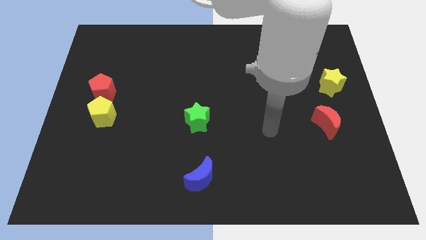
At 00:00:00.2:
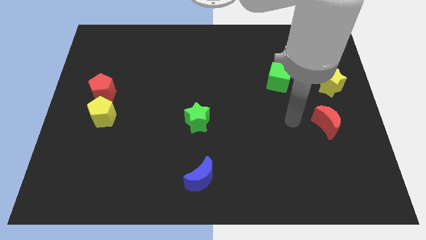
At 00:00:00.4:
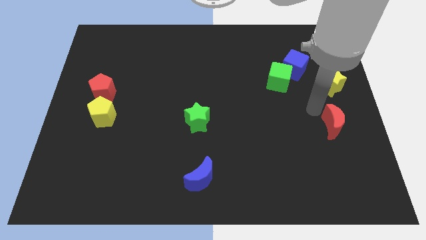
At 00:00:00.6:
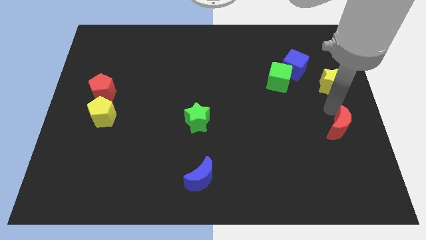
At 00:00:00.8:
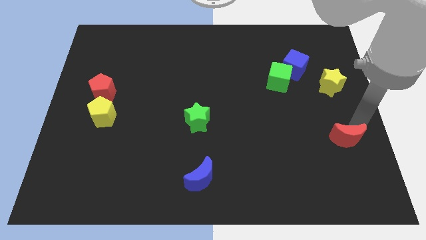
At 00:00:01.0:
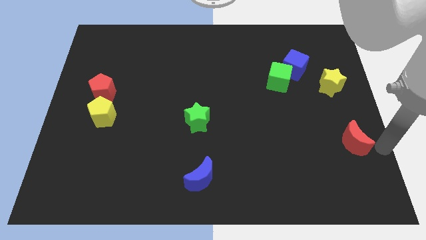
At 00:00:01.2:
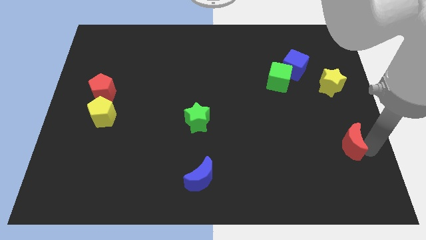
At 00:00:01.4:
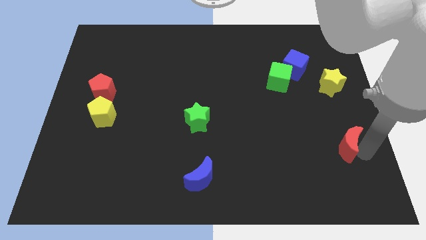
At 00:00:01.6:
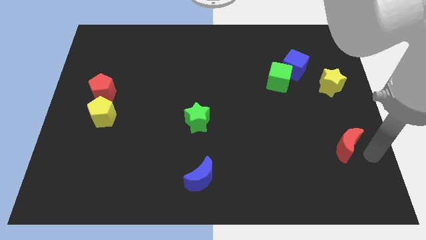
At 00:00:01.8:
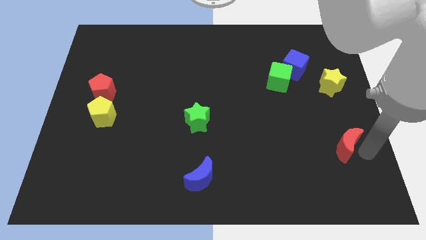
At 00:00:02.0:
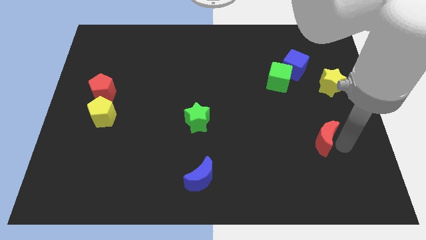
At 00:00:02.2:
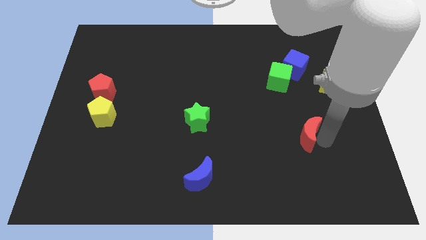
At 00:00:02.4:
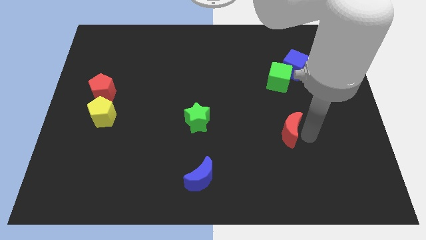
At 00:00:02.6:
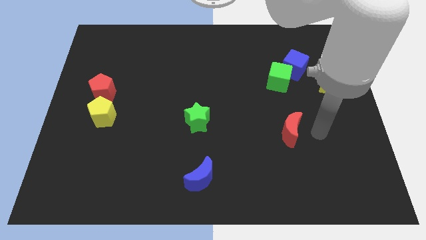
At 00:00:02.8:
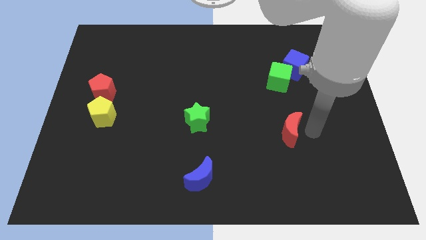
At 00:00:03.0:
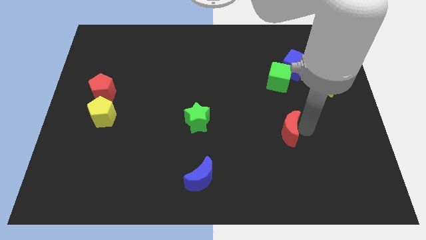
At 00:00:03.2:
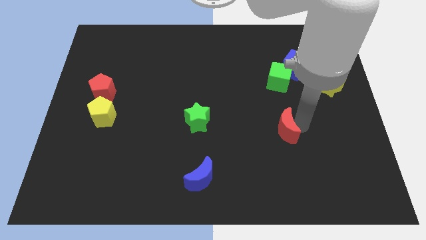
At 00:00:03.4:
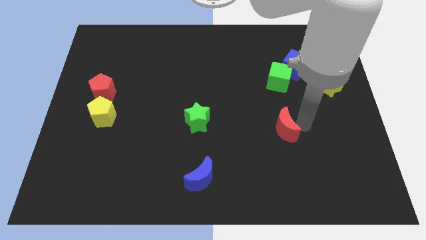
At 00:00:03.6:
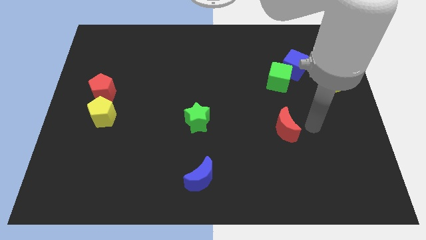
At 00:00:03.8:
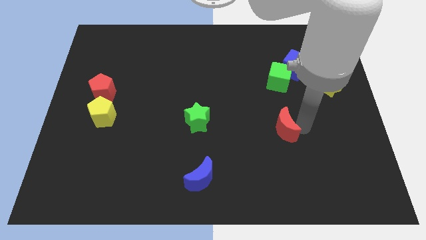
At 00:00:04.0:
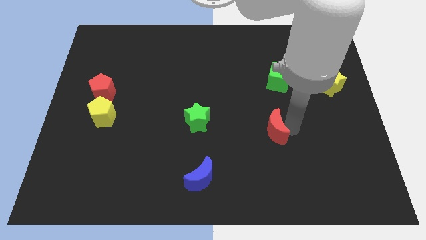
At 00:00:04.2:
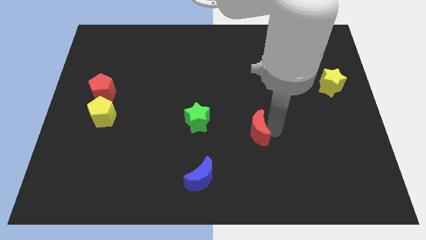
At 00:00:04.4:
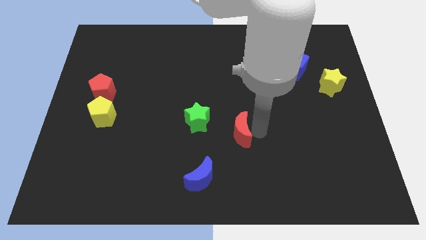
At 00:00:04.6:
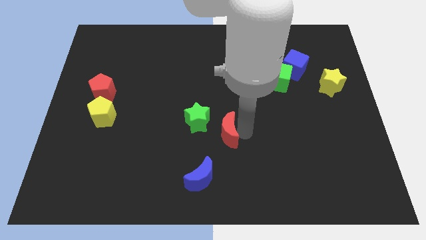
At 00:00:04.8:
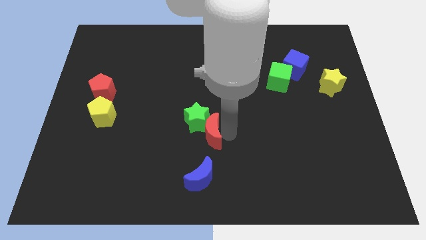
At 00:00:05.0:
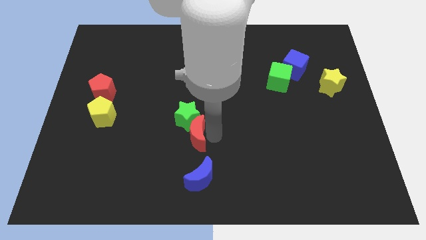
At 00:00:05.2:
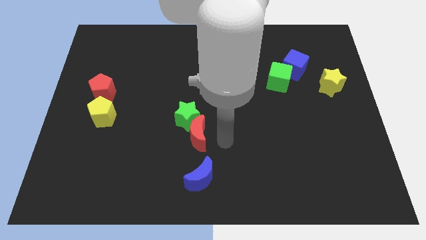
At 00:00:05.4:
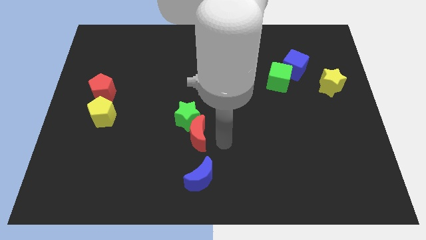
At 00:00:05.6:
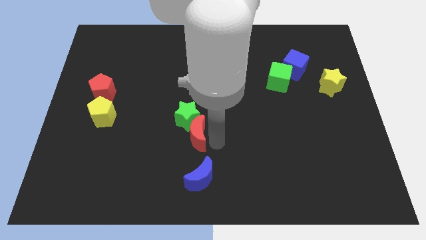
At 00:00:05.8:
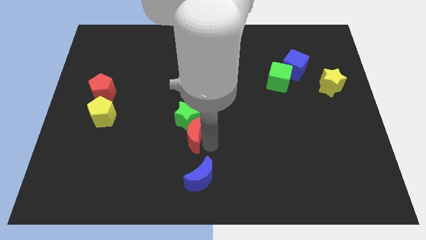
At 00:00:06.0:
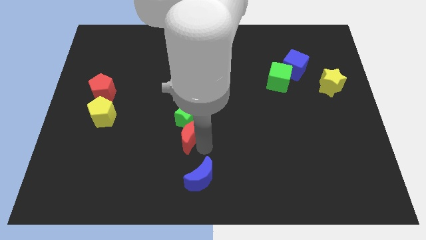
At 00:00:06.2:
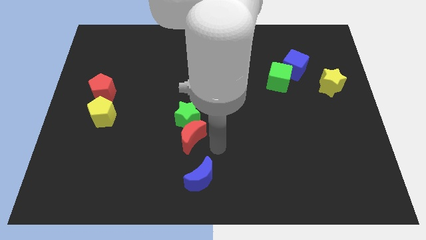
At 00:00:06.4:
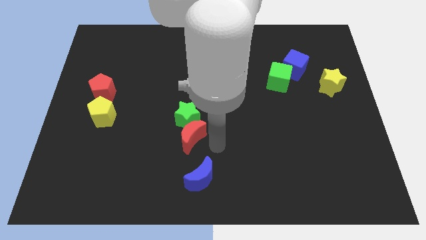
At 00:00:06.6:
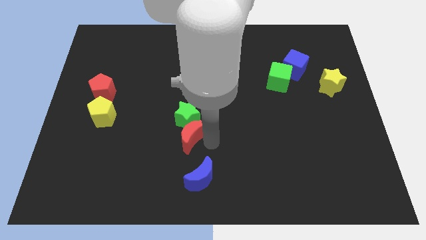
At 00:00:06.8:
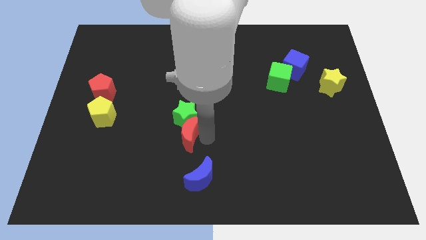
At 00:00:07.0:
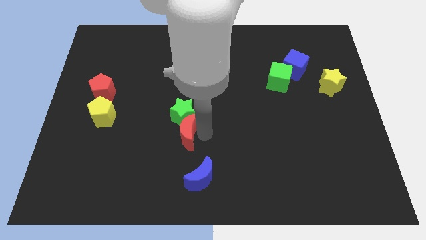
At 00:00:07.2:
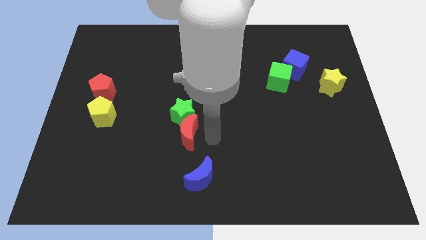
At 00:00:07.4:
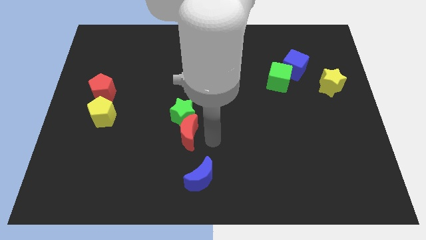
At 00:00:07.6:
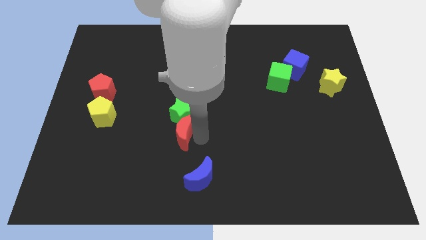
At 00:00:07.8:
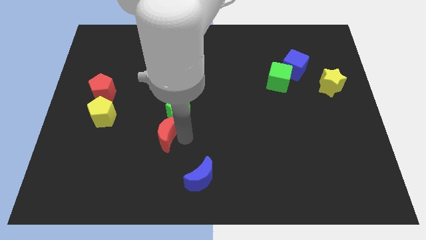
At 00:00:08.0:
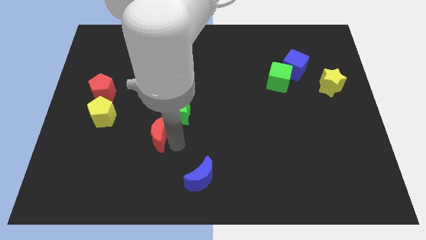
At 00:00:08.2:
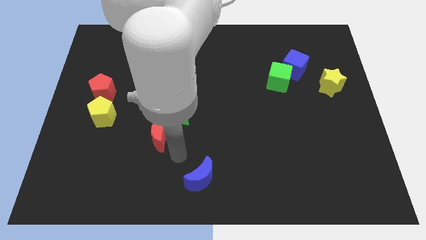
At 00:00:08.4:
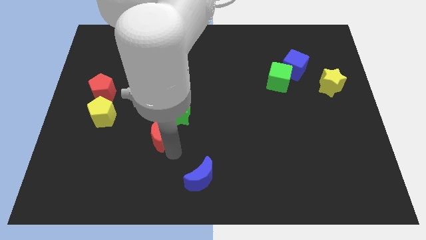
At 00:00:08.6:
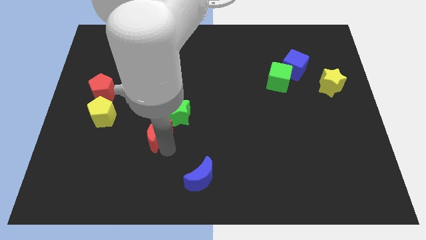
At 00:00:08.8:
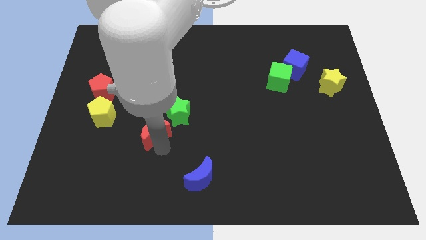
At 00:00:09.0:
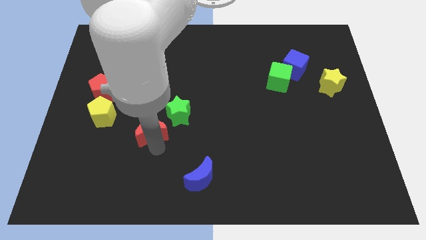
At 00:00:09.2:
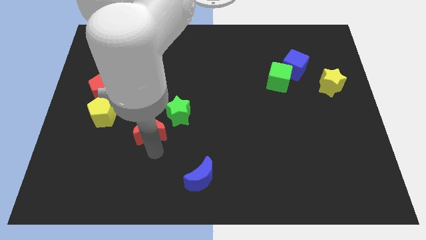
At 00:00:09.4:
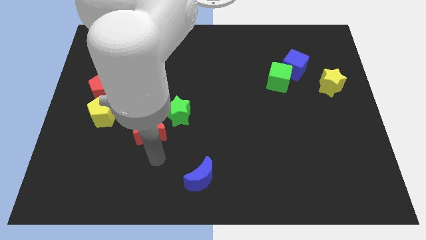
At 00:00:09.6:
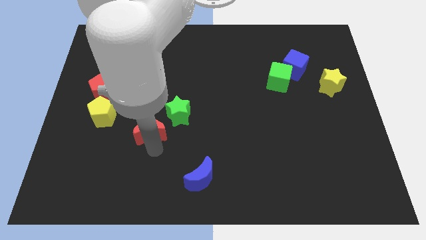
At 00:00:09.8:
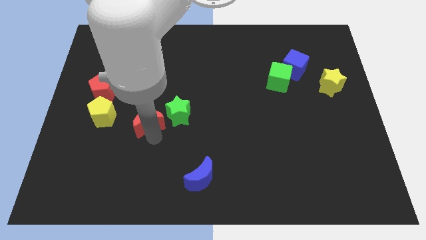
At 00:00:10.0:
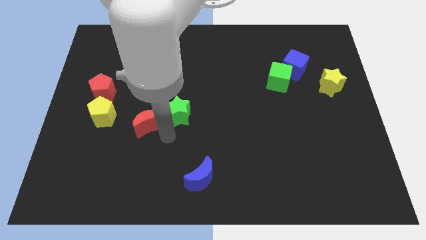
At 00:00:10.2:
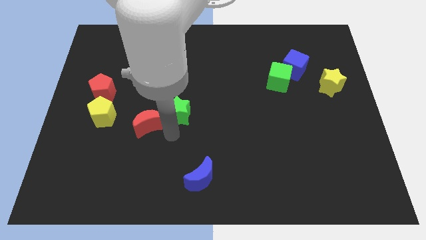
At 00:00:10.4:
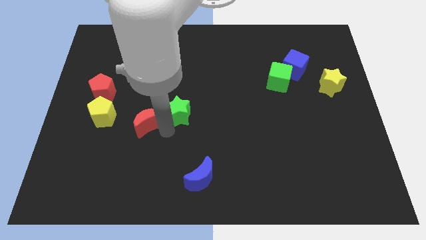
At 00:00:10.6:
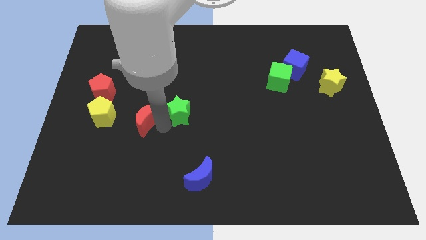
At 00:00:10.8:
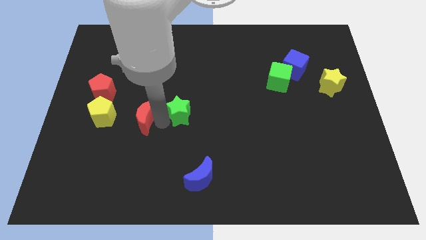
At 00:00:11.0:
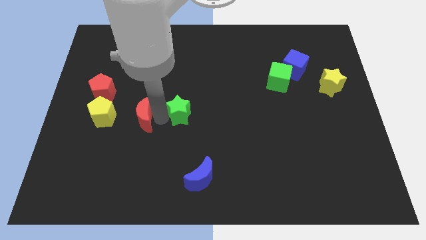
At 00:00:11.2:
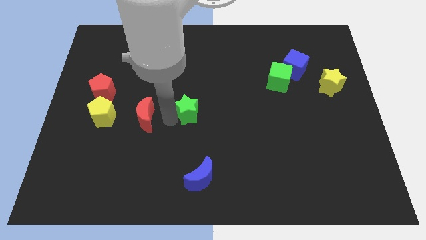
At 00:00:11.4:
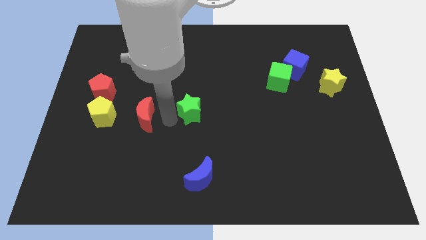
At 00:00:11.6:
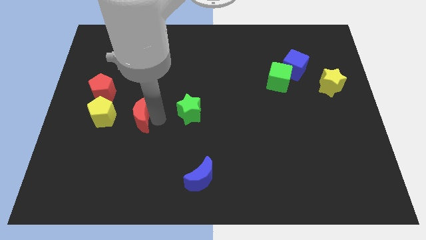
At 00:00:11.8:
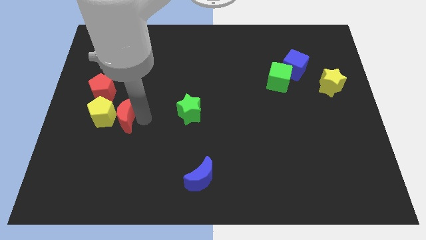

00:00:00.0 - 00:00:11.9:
slide the red moon close to the yellow pentagon

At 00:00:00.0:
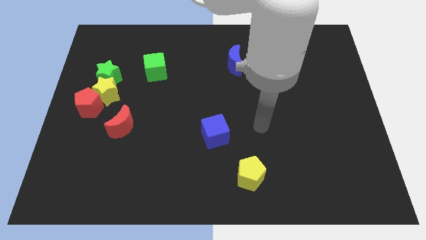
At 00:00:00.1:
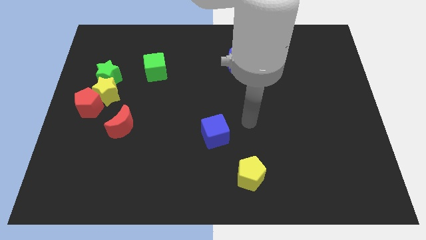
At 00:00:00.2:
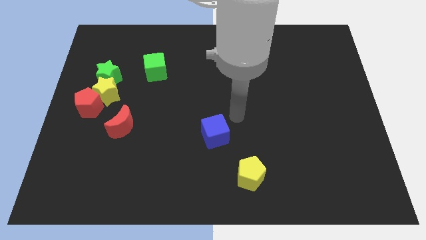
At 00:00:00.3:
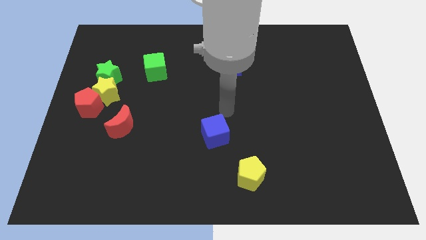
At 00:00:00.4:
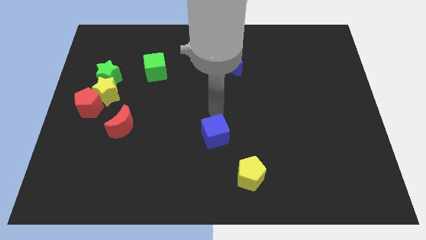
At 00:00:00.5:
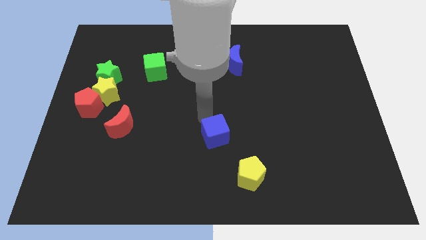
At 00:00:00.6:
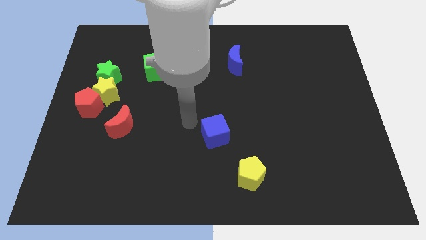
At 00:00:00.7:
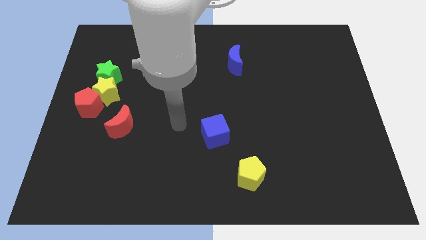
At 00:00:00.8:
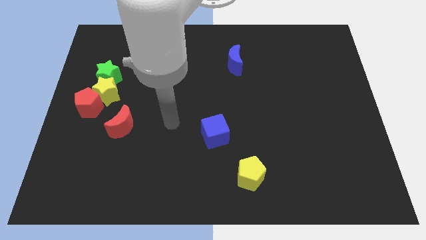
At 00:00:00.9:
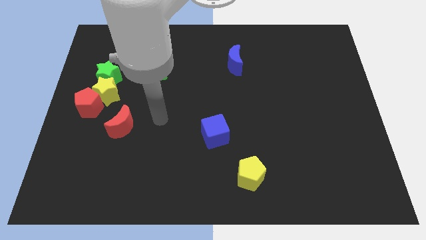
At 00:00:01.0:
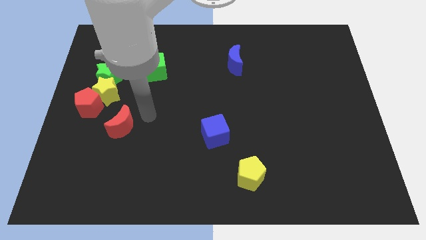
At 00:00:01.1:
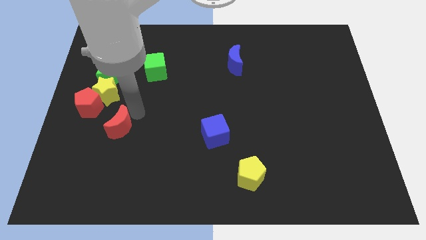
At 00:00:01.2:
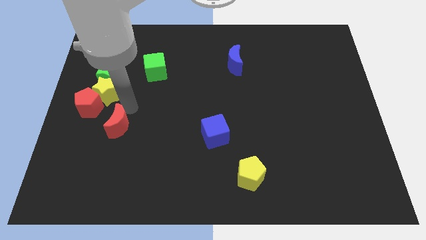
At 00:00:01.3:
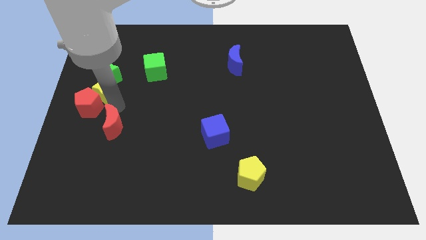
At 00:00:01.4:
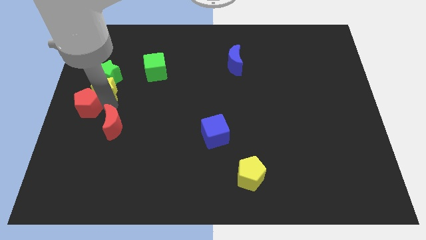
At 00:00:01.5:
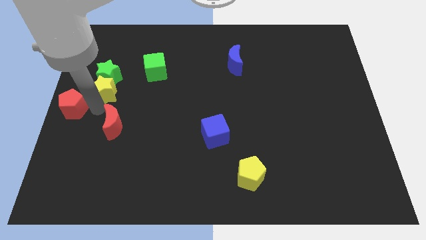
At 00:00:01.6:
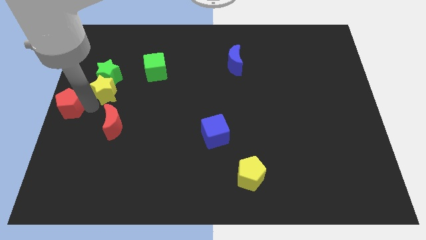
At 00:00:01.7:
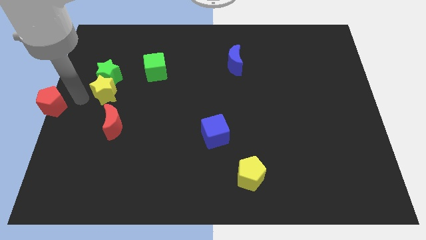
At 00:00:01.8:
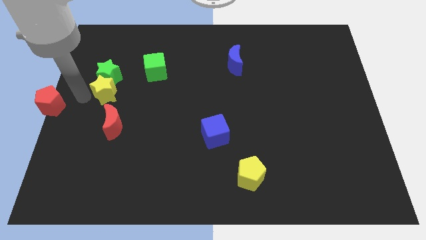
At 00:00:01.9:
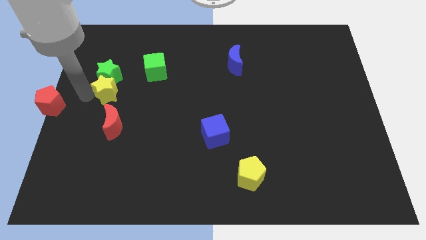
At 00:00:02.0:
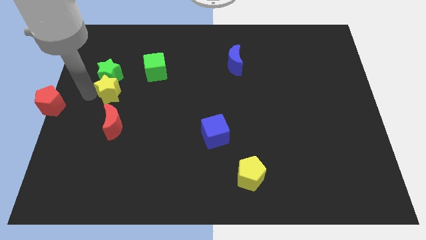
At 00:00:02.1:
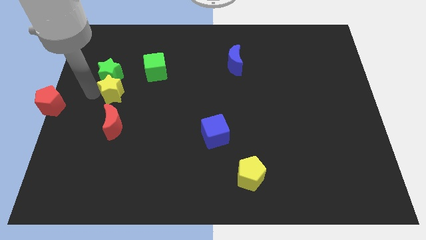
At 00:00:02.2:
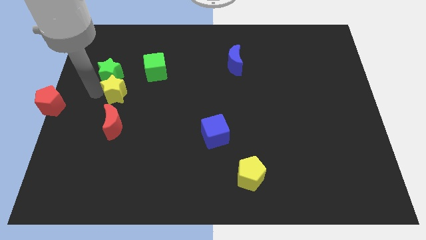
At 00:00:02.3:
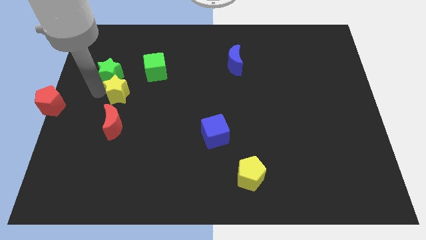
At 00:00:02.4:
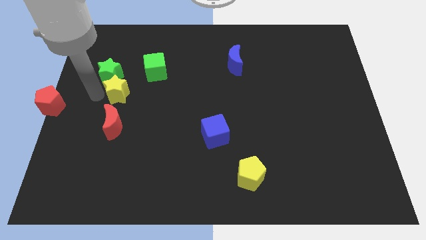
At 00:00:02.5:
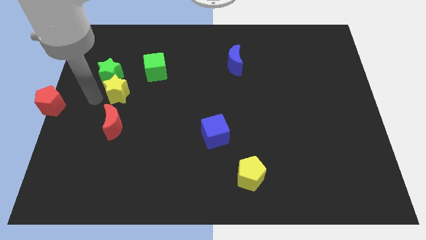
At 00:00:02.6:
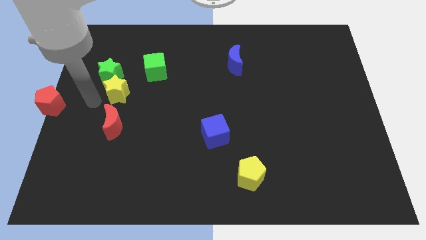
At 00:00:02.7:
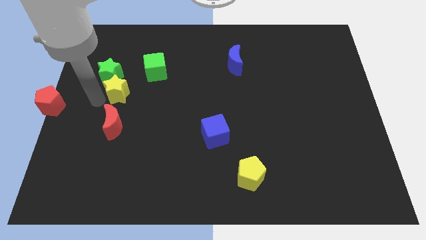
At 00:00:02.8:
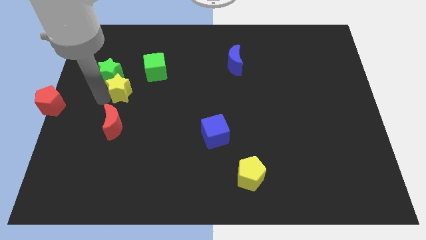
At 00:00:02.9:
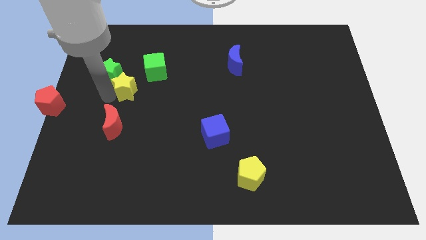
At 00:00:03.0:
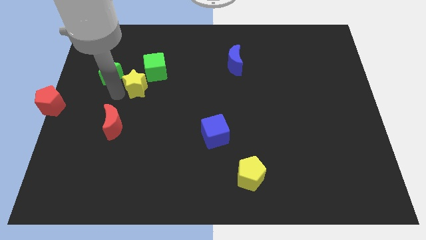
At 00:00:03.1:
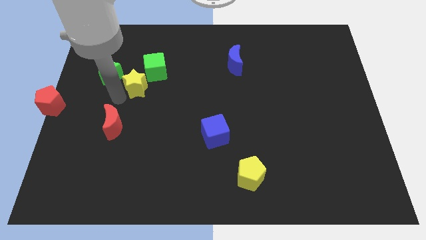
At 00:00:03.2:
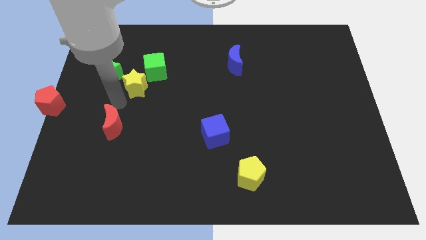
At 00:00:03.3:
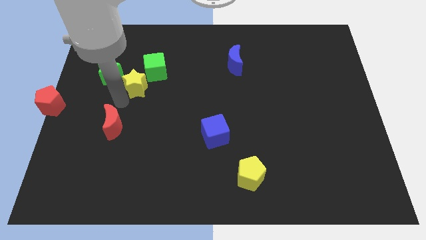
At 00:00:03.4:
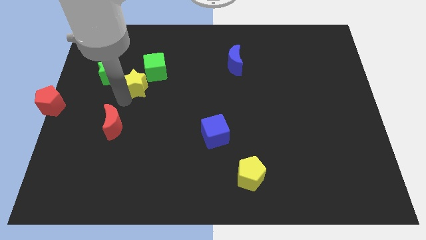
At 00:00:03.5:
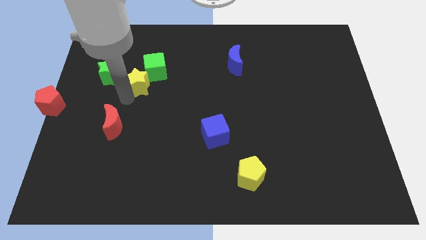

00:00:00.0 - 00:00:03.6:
move the yellow star towards the green cube
